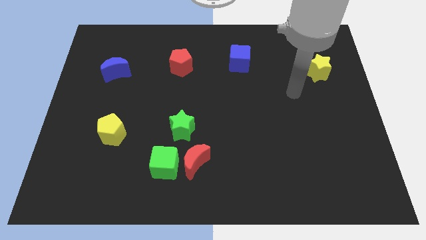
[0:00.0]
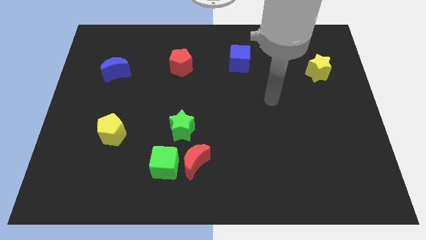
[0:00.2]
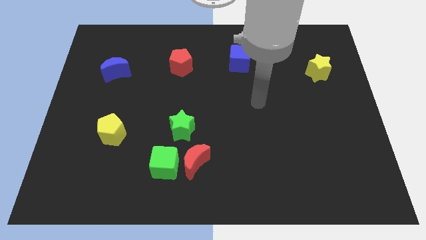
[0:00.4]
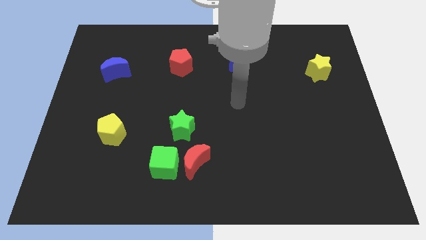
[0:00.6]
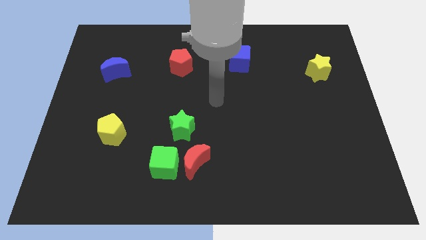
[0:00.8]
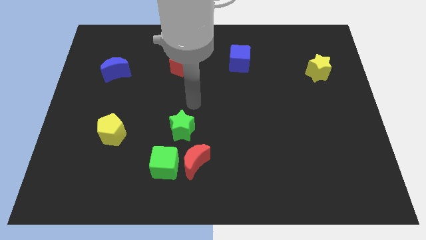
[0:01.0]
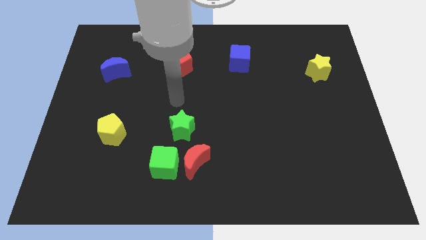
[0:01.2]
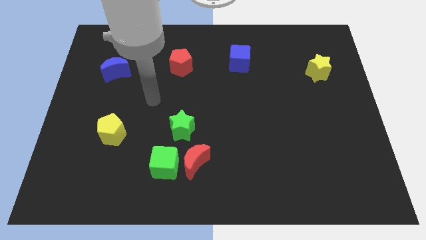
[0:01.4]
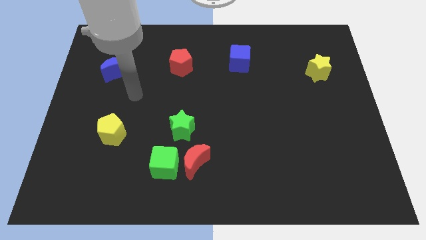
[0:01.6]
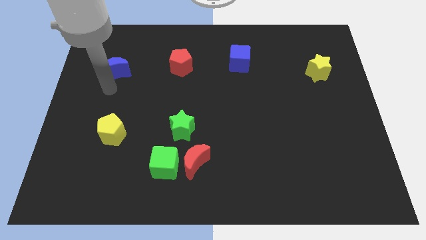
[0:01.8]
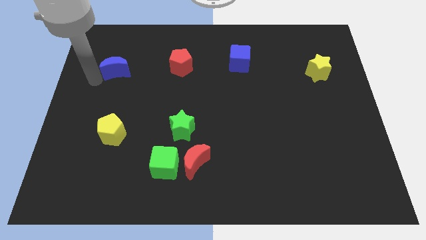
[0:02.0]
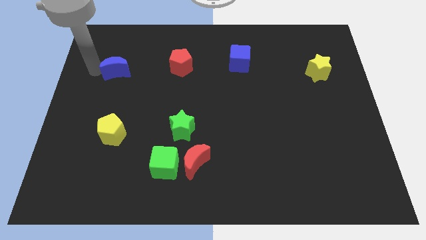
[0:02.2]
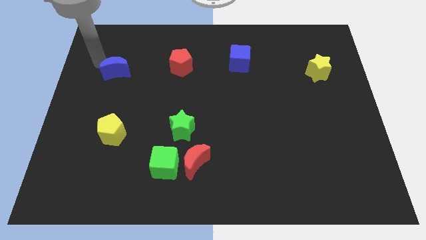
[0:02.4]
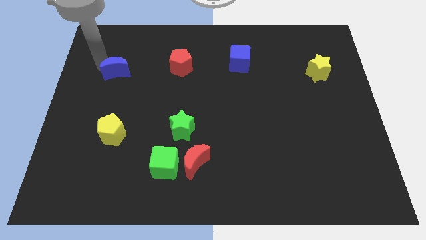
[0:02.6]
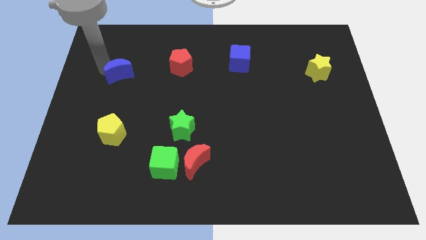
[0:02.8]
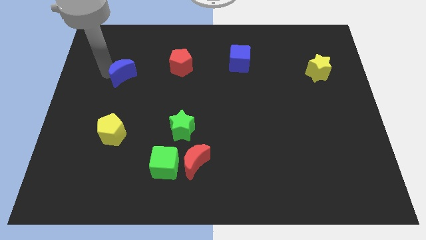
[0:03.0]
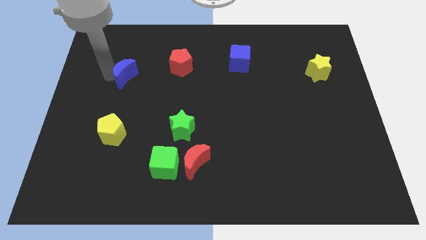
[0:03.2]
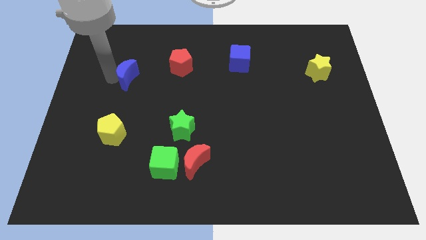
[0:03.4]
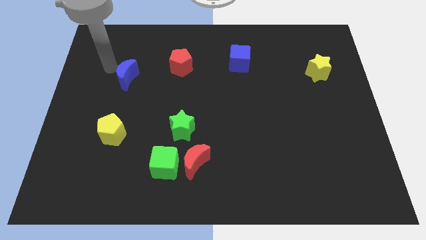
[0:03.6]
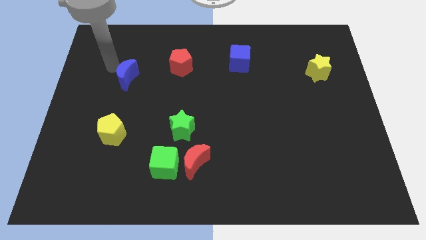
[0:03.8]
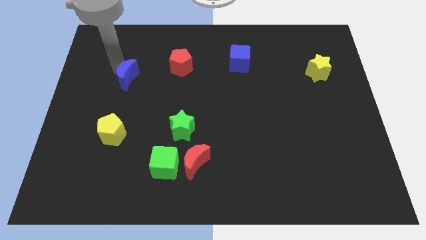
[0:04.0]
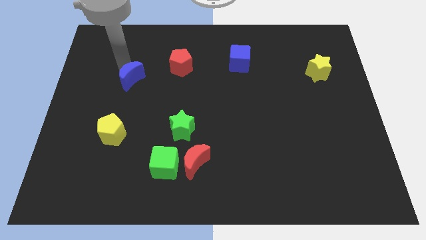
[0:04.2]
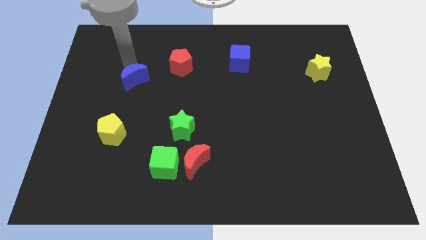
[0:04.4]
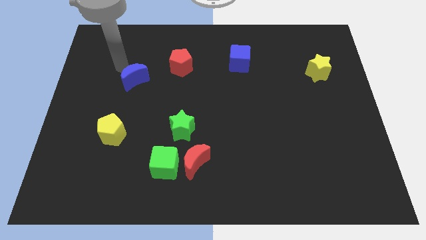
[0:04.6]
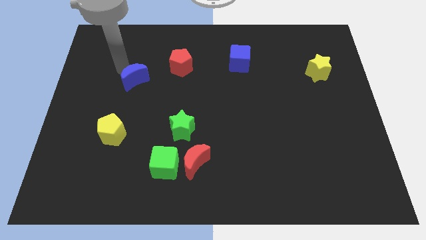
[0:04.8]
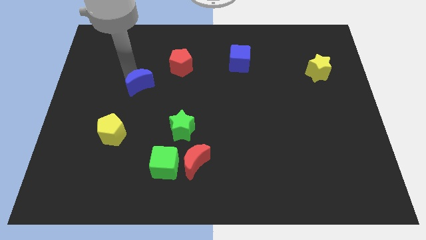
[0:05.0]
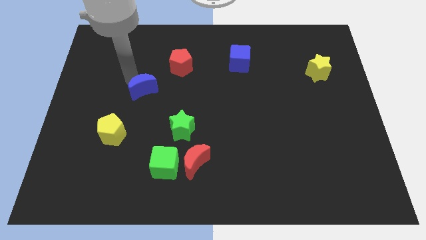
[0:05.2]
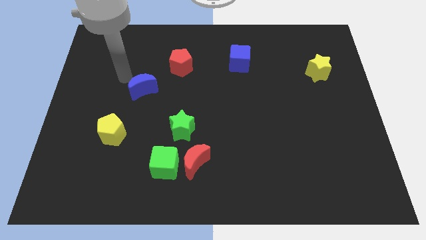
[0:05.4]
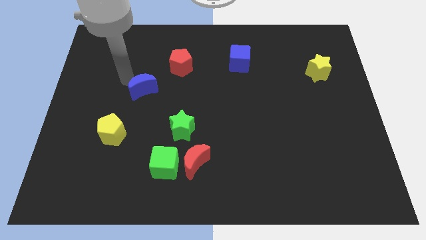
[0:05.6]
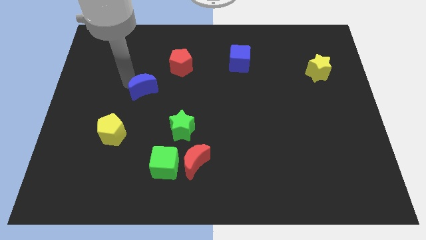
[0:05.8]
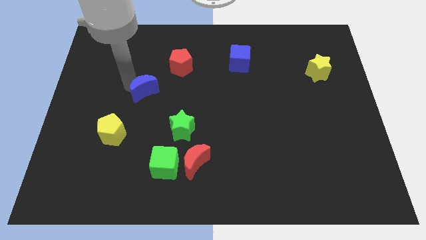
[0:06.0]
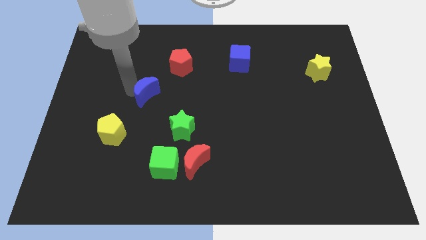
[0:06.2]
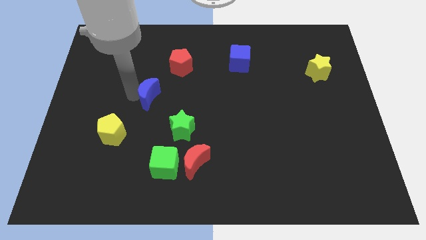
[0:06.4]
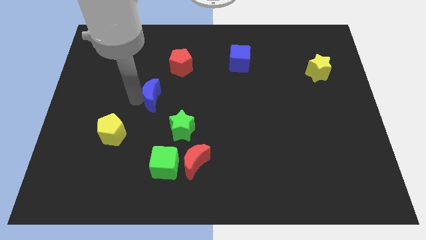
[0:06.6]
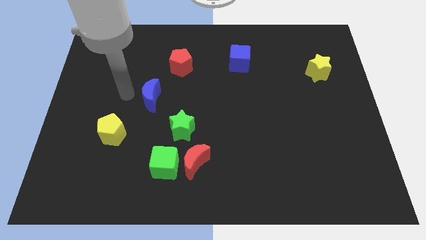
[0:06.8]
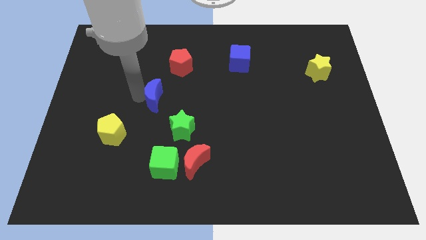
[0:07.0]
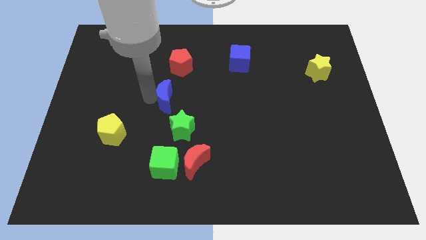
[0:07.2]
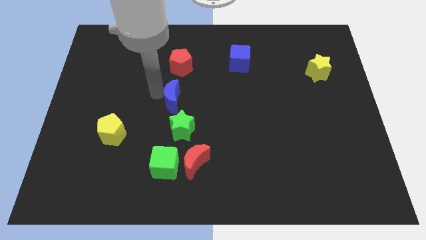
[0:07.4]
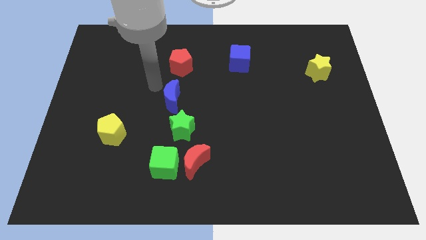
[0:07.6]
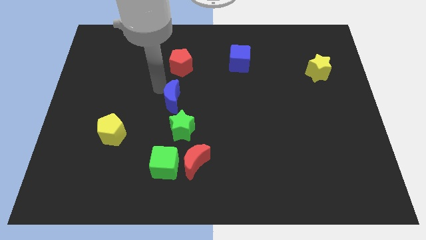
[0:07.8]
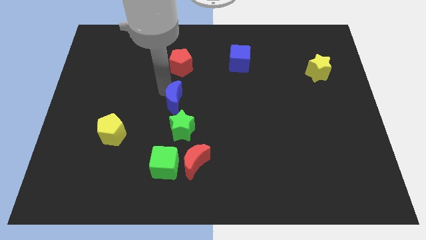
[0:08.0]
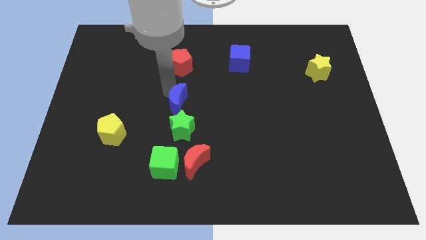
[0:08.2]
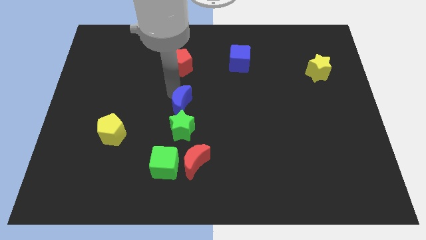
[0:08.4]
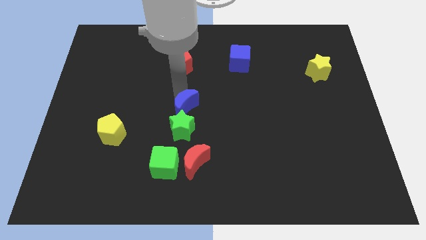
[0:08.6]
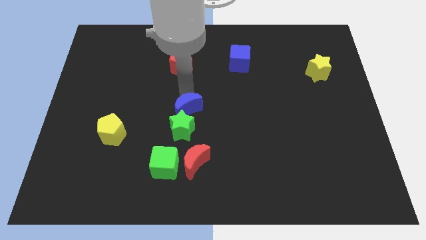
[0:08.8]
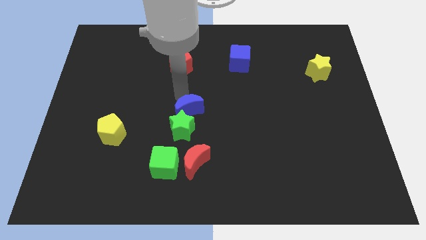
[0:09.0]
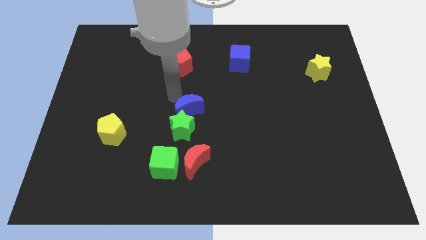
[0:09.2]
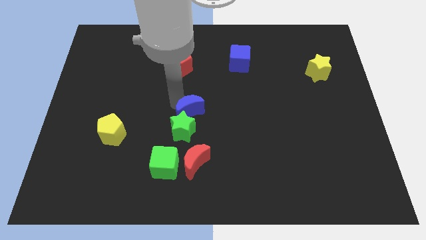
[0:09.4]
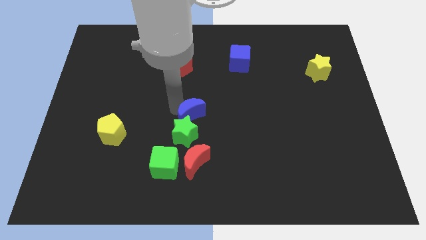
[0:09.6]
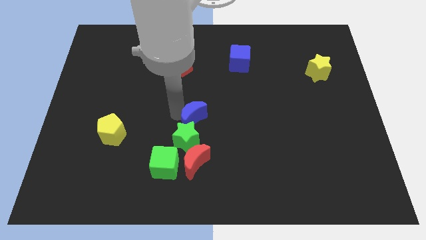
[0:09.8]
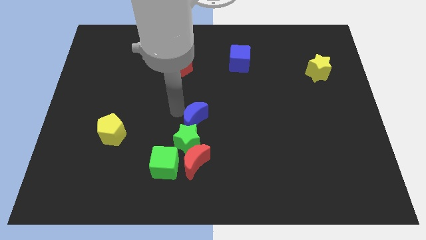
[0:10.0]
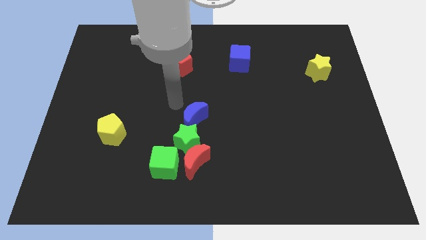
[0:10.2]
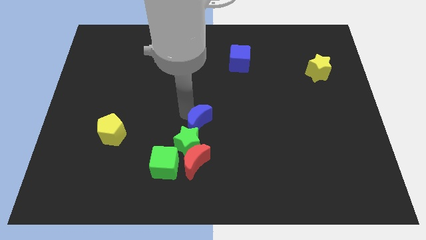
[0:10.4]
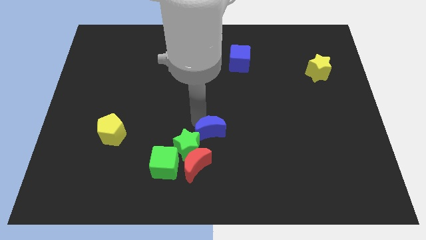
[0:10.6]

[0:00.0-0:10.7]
slide the blue moon to the top right side of the red moon

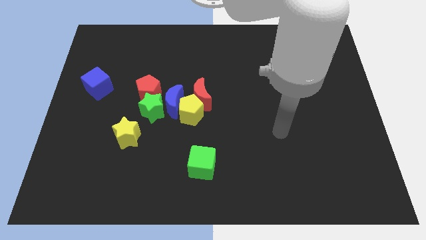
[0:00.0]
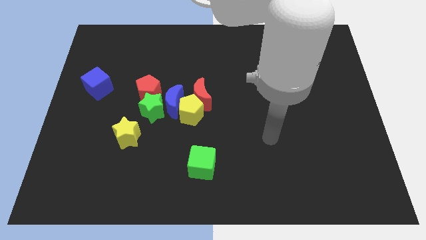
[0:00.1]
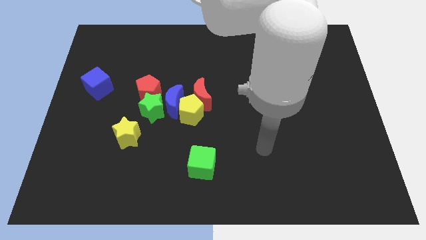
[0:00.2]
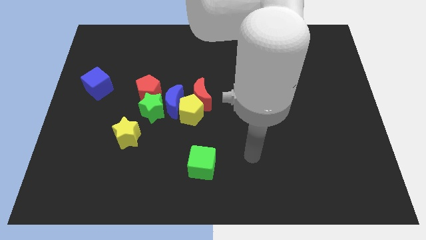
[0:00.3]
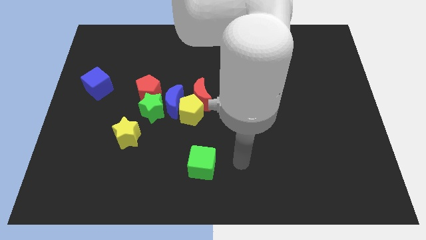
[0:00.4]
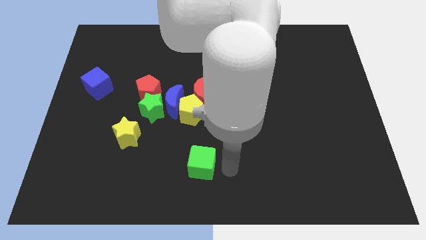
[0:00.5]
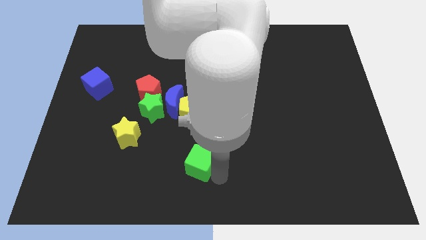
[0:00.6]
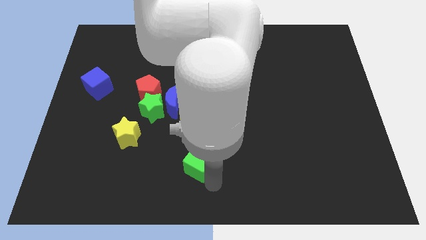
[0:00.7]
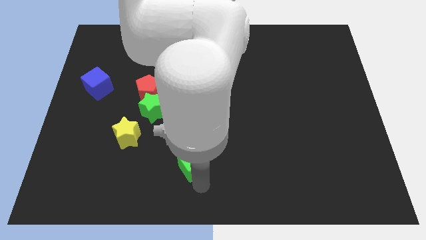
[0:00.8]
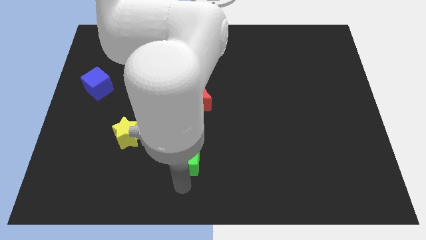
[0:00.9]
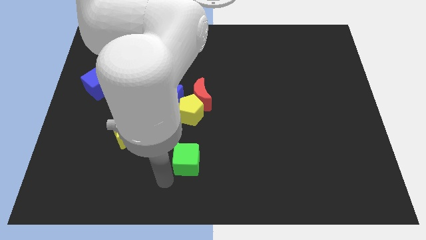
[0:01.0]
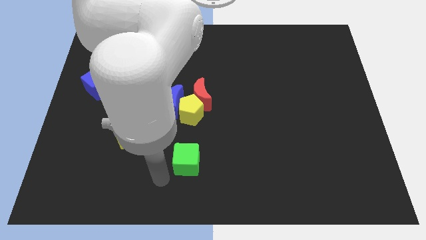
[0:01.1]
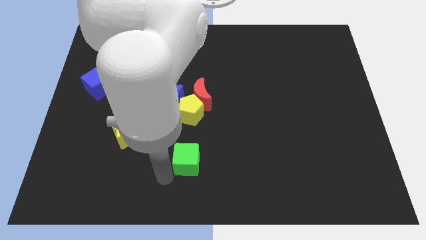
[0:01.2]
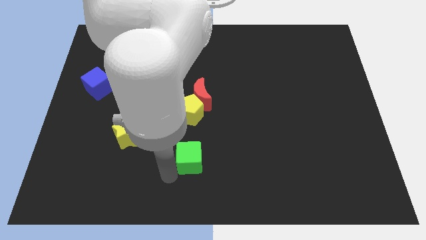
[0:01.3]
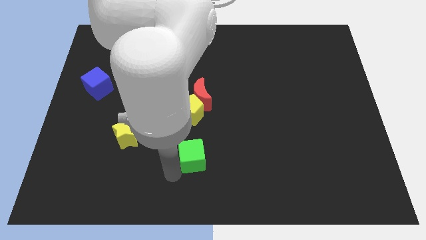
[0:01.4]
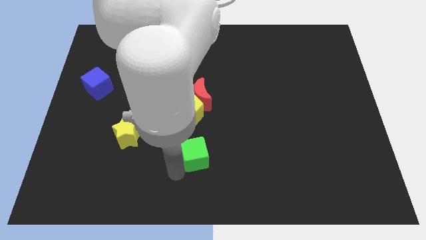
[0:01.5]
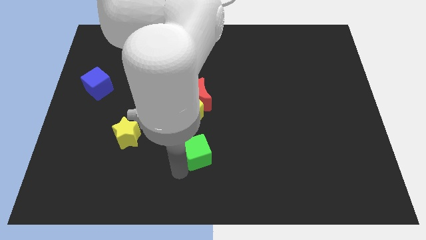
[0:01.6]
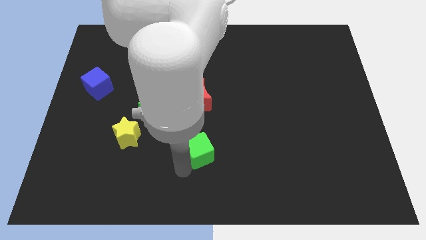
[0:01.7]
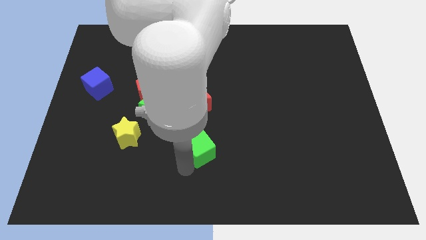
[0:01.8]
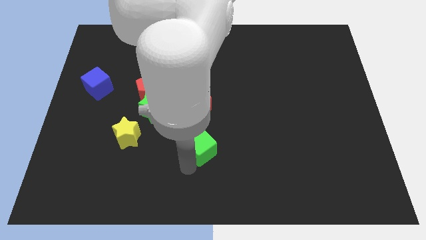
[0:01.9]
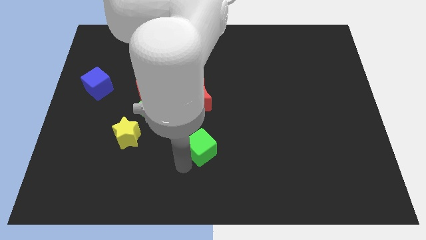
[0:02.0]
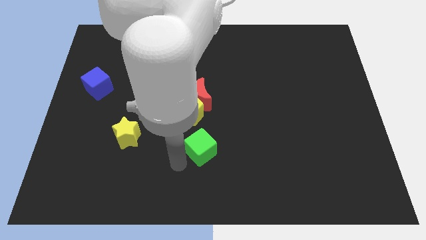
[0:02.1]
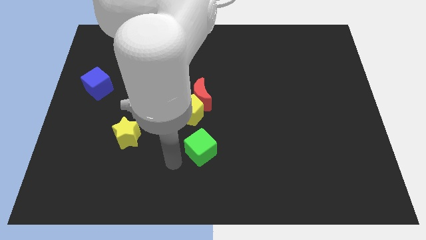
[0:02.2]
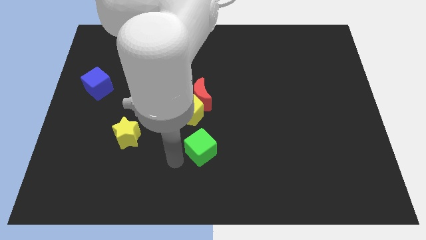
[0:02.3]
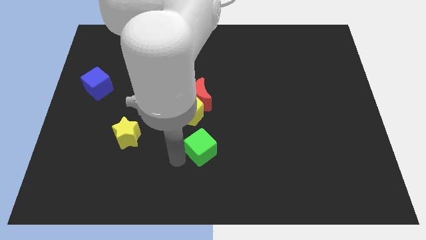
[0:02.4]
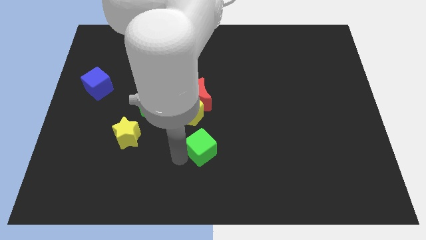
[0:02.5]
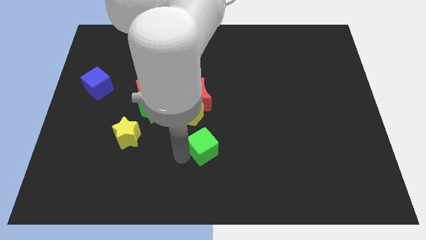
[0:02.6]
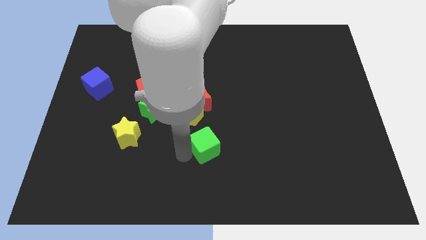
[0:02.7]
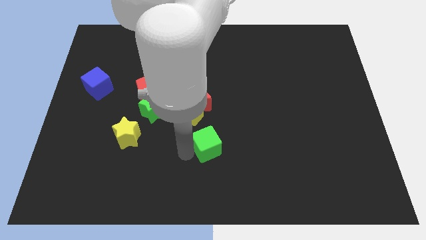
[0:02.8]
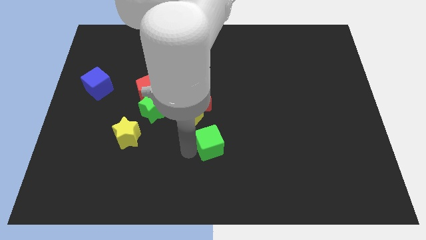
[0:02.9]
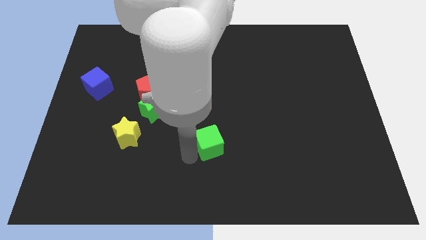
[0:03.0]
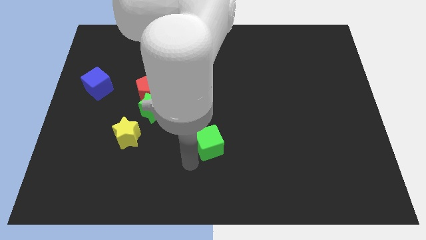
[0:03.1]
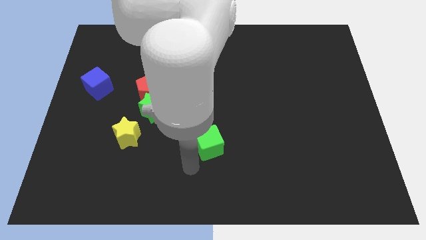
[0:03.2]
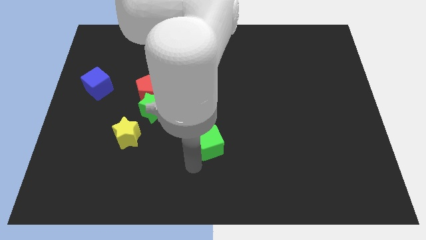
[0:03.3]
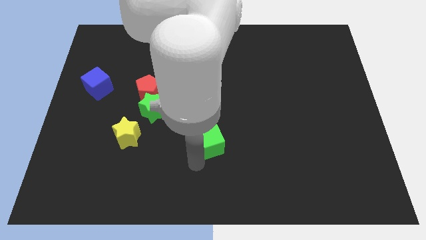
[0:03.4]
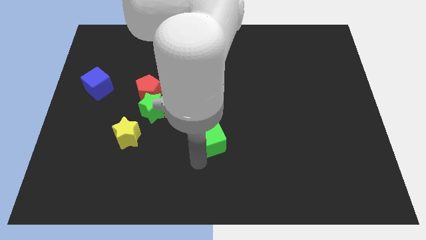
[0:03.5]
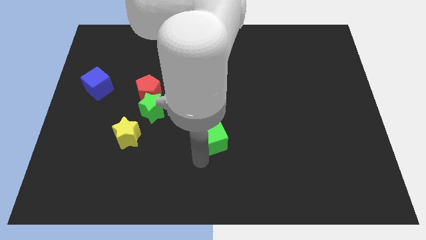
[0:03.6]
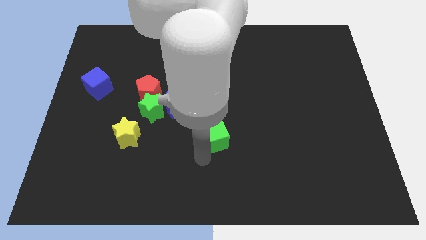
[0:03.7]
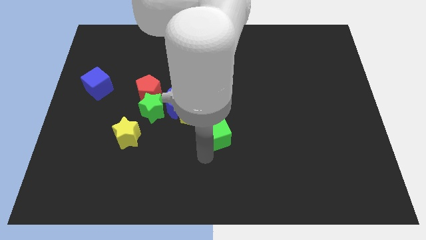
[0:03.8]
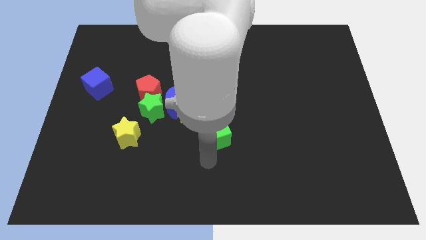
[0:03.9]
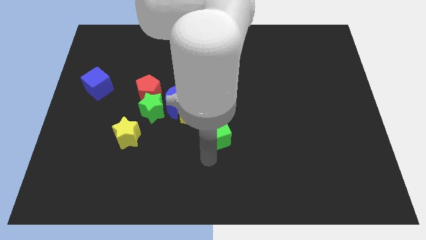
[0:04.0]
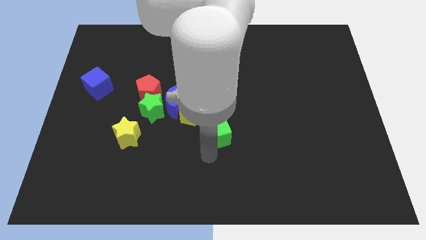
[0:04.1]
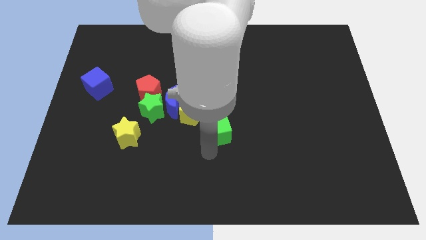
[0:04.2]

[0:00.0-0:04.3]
slide the green cube to the bottom right side of the red moon
